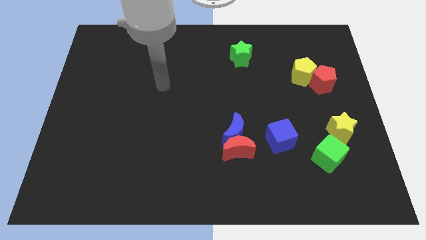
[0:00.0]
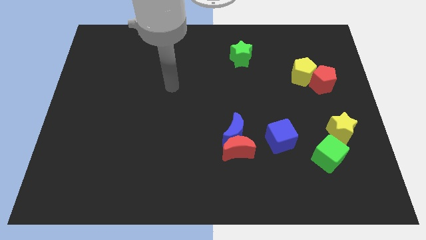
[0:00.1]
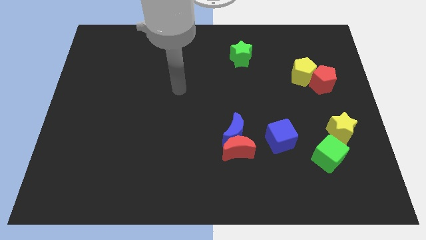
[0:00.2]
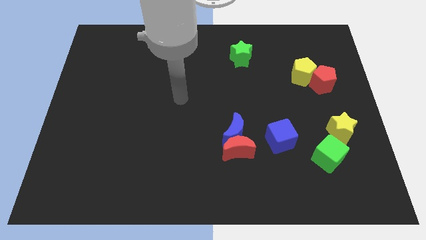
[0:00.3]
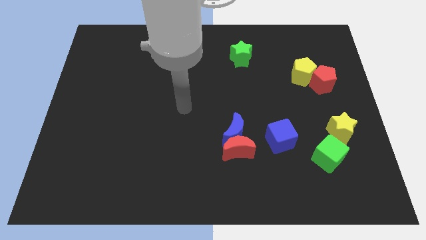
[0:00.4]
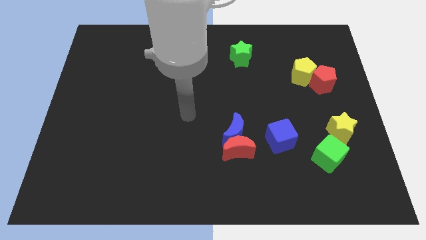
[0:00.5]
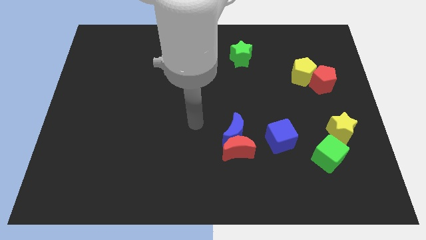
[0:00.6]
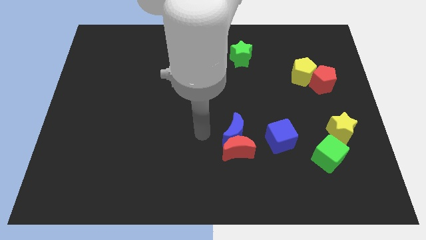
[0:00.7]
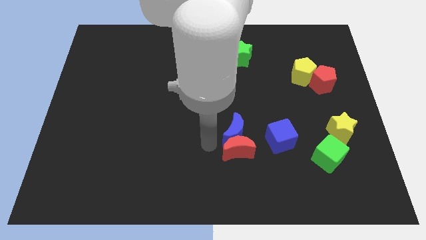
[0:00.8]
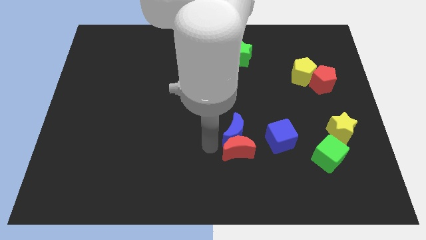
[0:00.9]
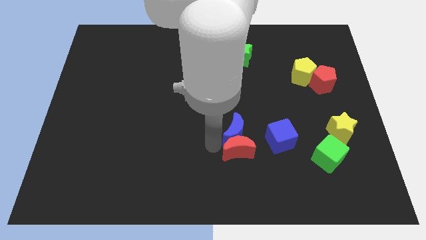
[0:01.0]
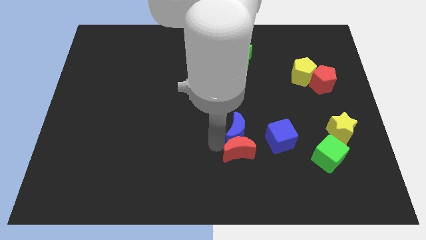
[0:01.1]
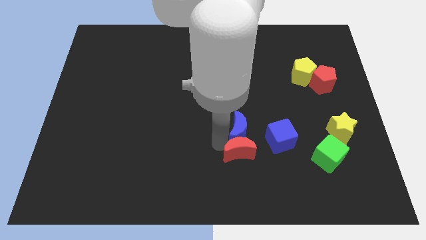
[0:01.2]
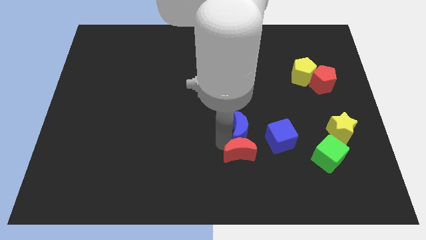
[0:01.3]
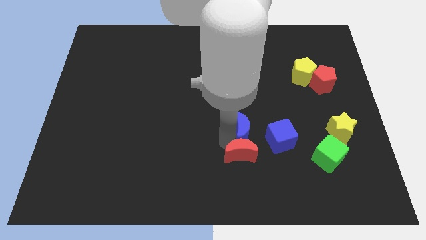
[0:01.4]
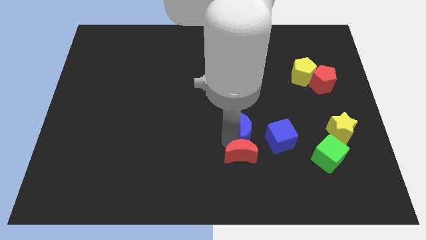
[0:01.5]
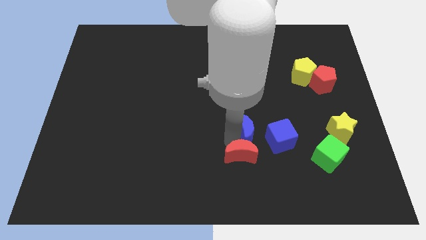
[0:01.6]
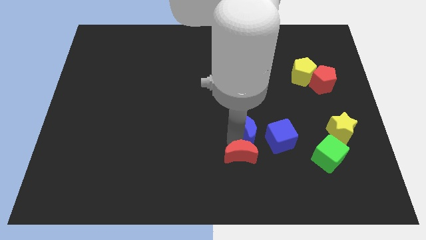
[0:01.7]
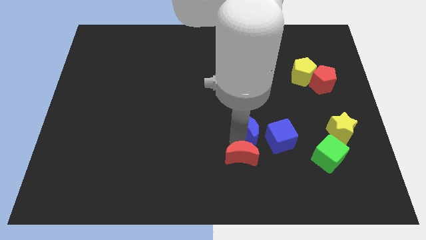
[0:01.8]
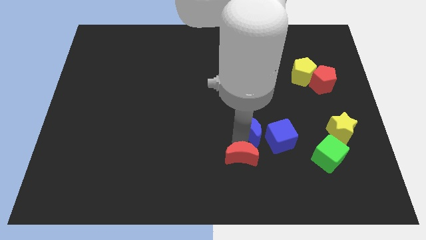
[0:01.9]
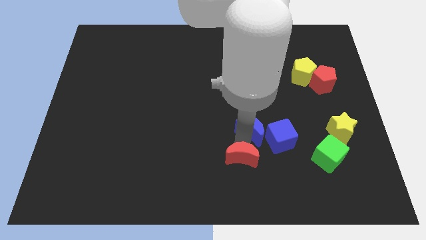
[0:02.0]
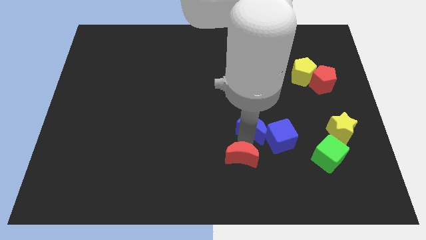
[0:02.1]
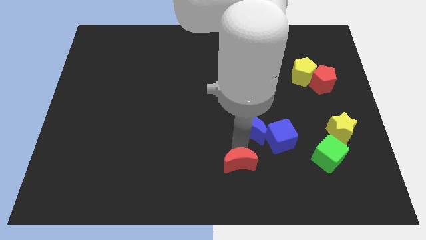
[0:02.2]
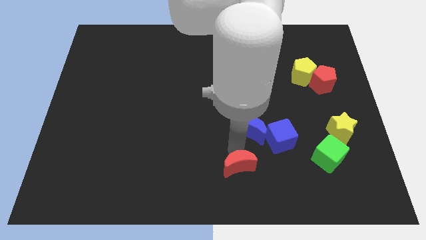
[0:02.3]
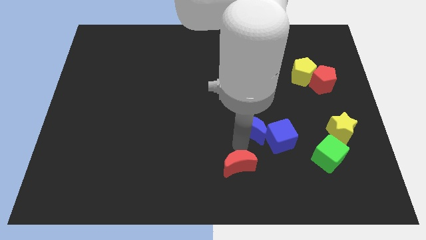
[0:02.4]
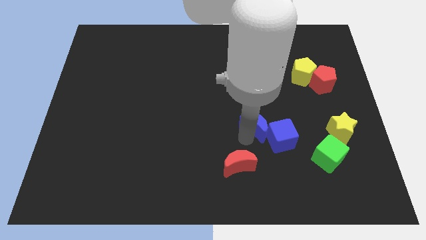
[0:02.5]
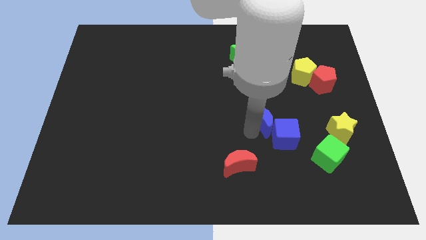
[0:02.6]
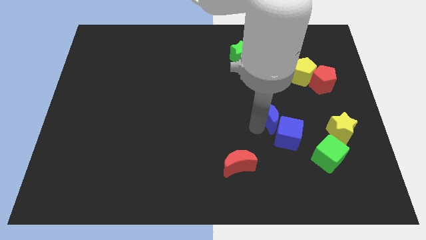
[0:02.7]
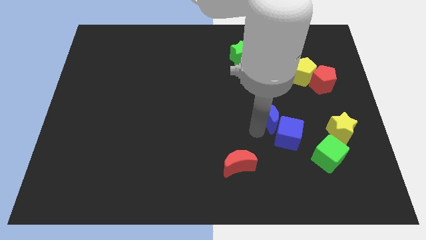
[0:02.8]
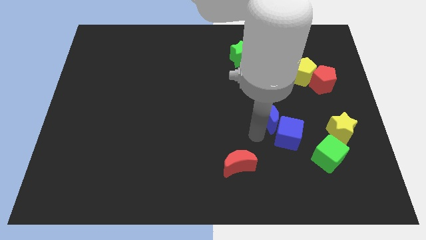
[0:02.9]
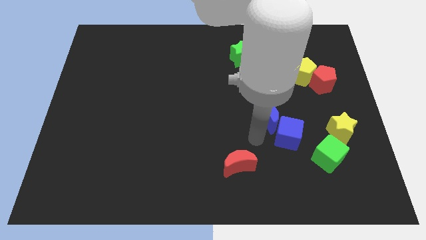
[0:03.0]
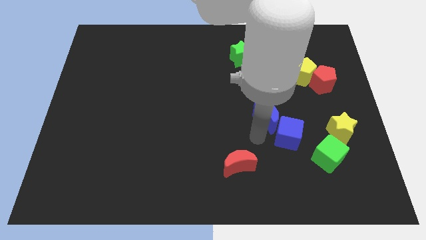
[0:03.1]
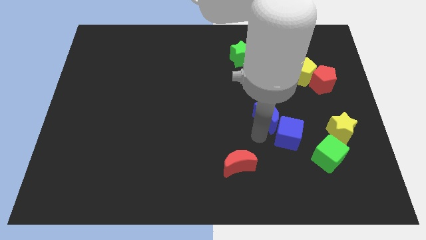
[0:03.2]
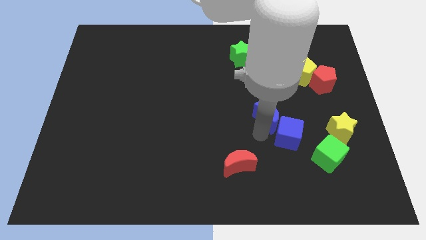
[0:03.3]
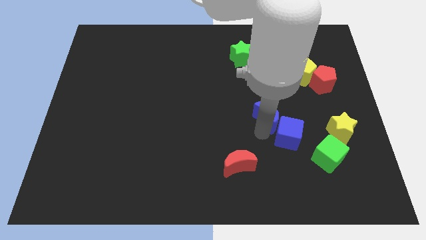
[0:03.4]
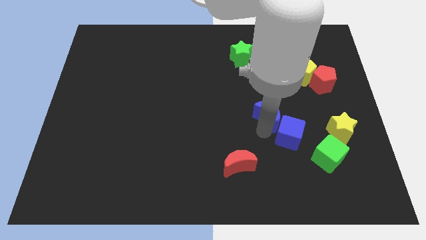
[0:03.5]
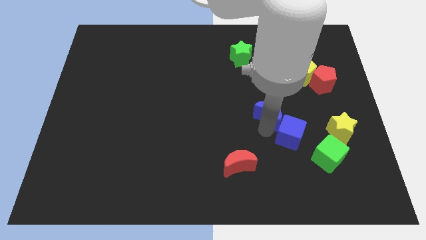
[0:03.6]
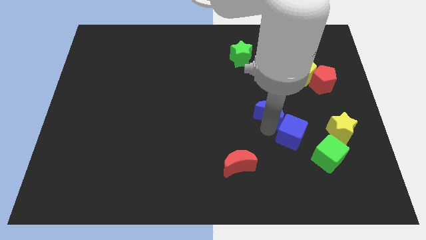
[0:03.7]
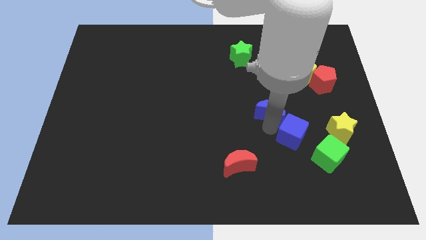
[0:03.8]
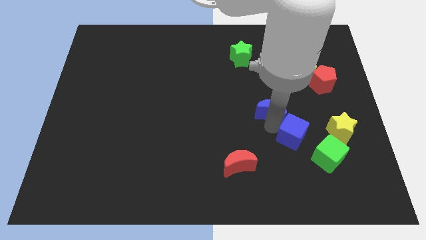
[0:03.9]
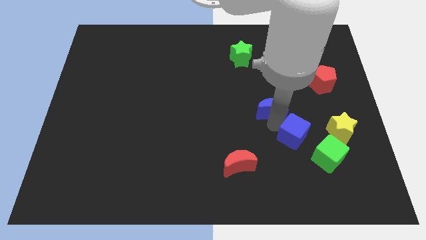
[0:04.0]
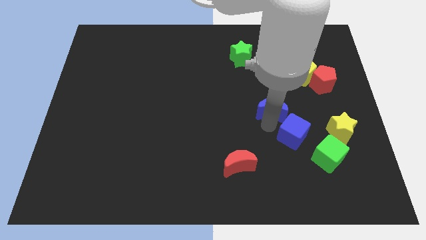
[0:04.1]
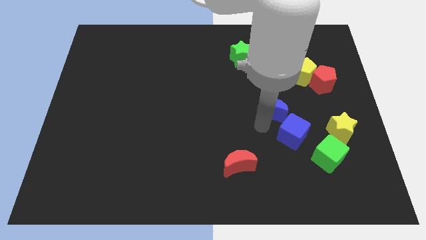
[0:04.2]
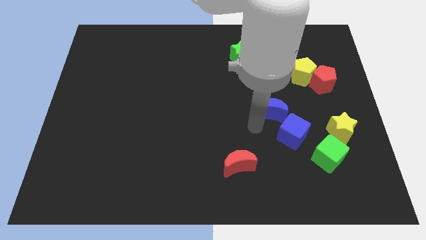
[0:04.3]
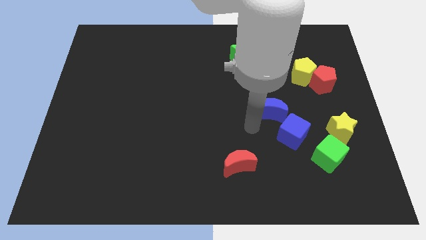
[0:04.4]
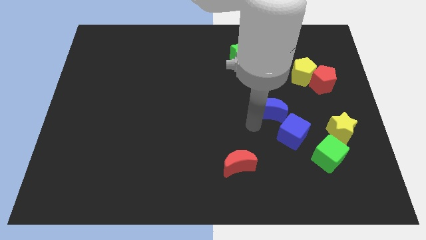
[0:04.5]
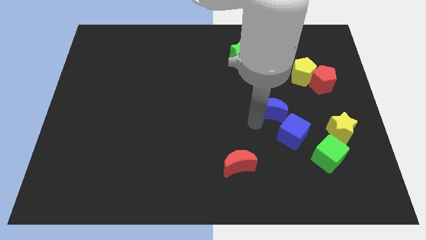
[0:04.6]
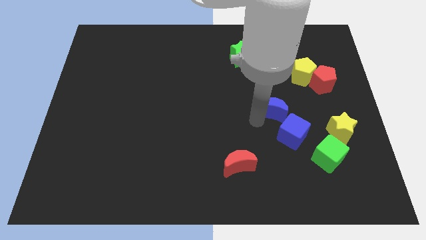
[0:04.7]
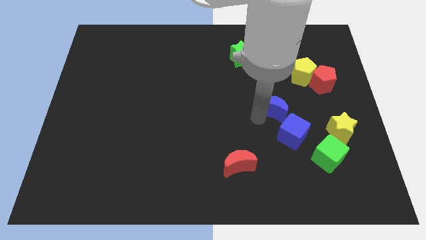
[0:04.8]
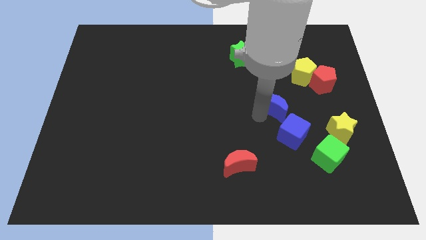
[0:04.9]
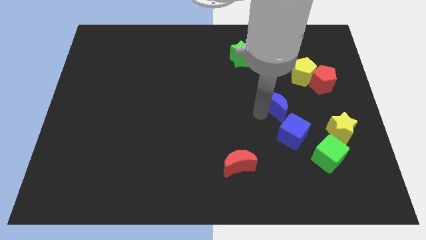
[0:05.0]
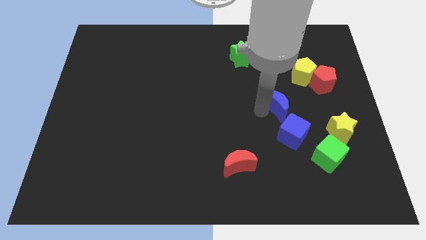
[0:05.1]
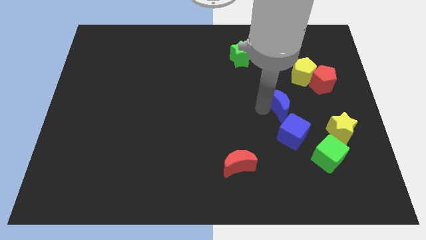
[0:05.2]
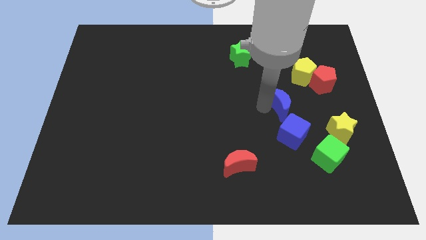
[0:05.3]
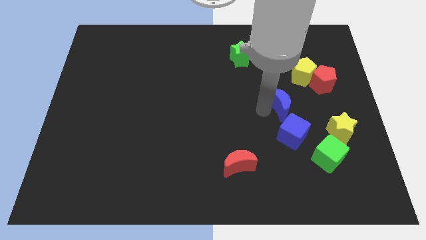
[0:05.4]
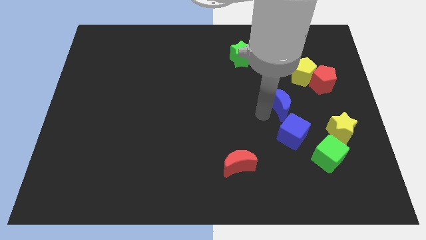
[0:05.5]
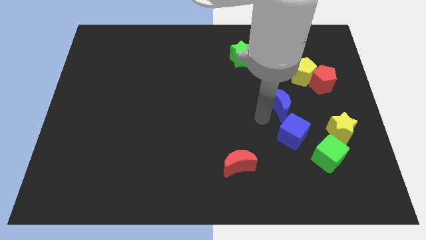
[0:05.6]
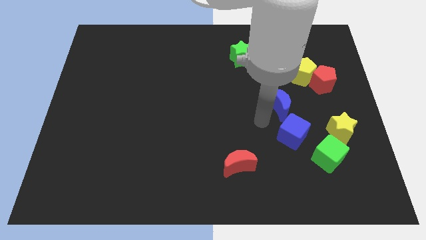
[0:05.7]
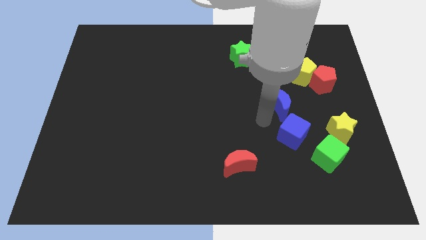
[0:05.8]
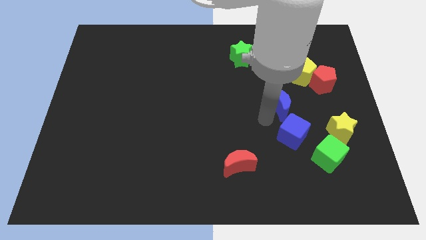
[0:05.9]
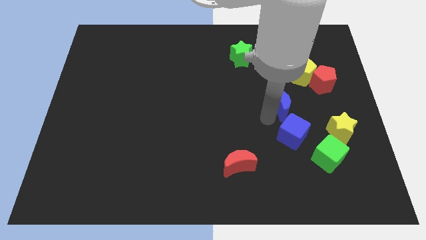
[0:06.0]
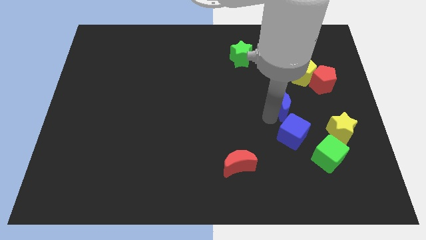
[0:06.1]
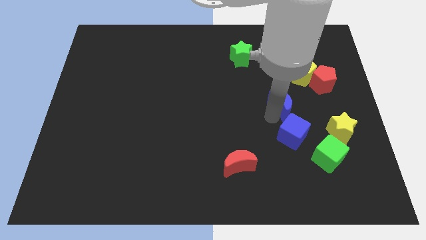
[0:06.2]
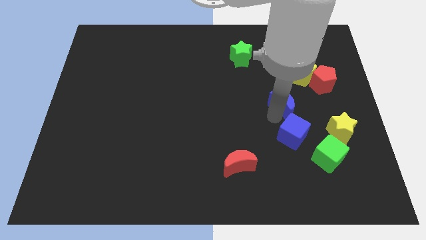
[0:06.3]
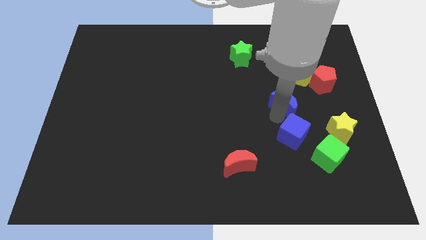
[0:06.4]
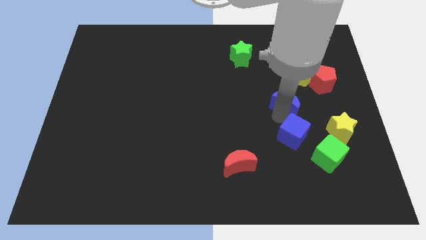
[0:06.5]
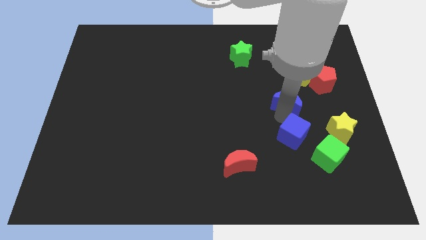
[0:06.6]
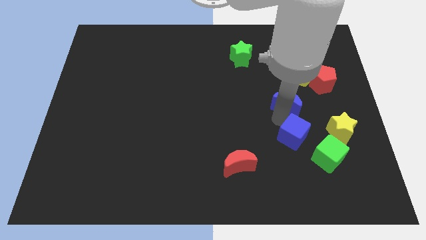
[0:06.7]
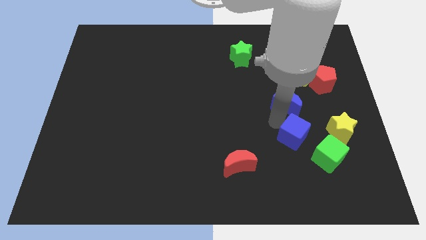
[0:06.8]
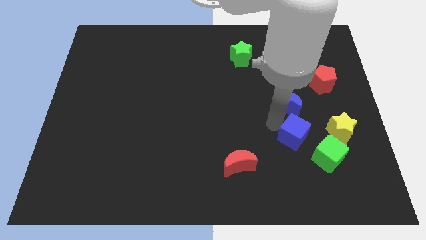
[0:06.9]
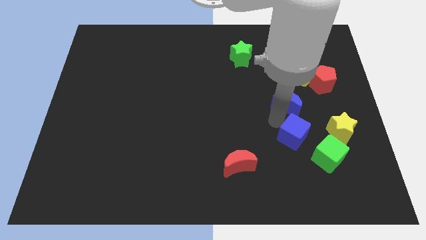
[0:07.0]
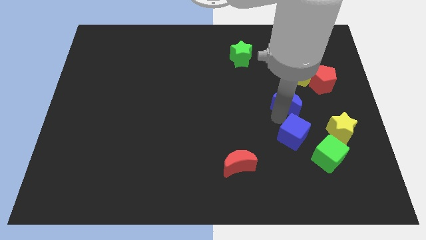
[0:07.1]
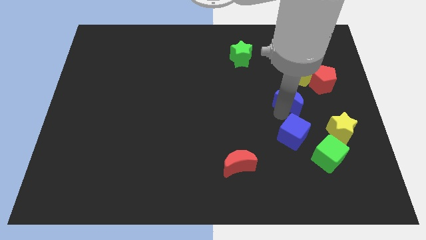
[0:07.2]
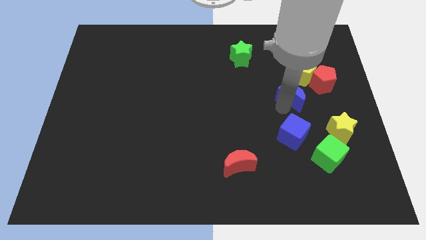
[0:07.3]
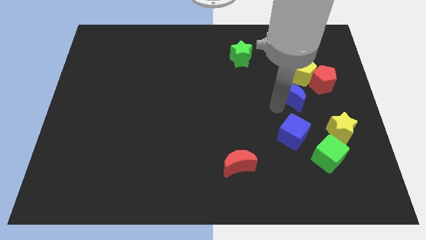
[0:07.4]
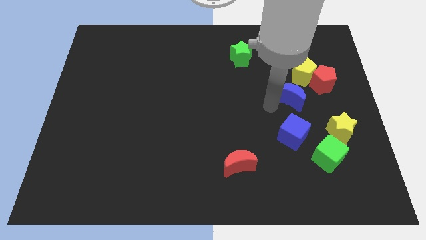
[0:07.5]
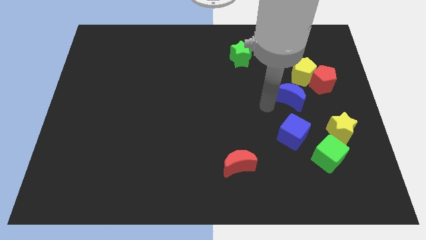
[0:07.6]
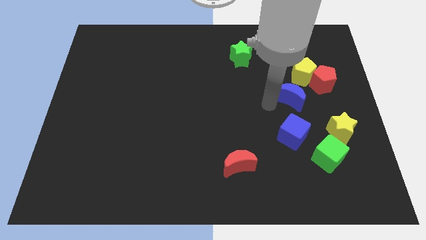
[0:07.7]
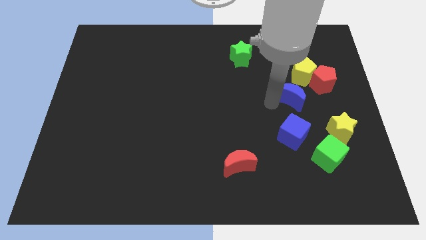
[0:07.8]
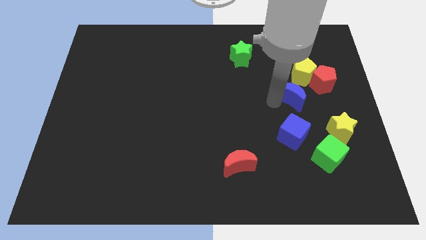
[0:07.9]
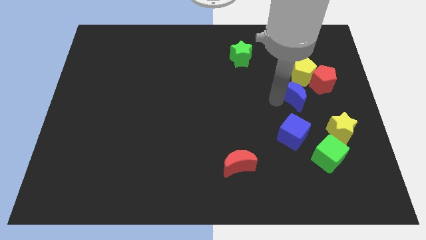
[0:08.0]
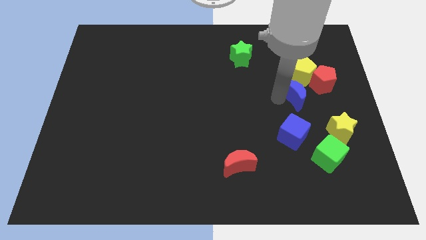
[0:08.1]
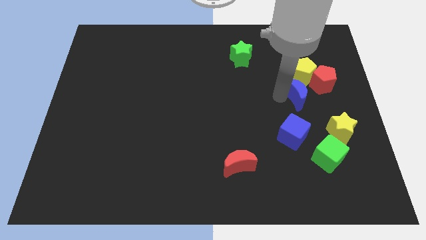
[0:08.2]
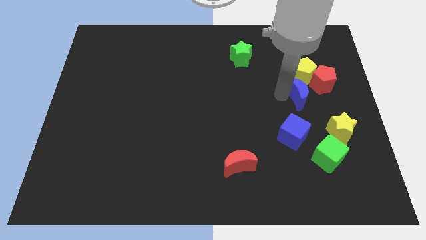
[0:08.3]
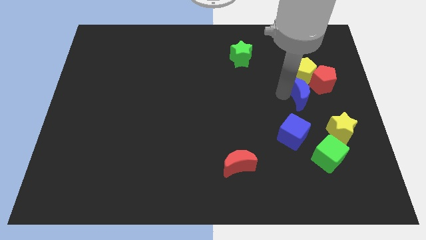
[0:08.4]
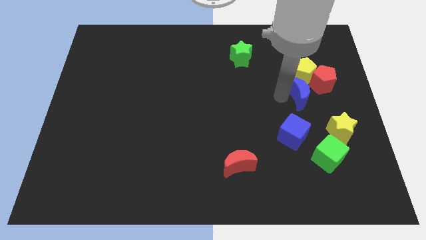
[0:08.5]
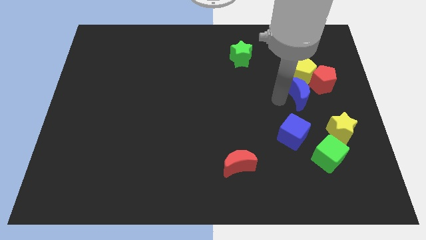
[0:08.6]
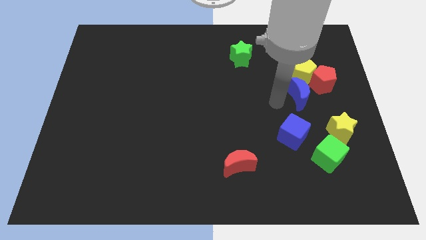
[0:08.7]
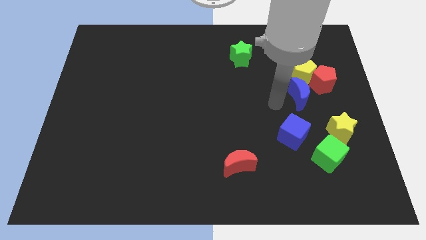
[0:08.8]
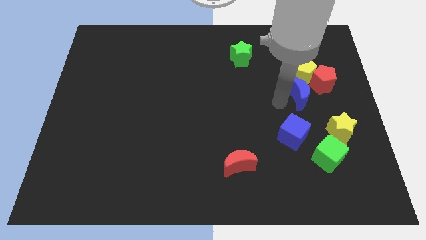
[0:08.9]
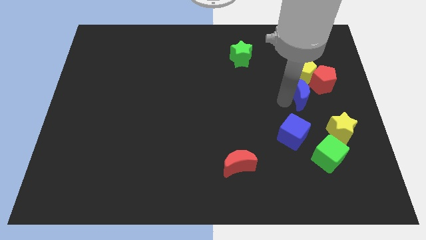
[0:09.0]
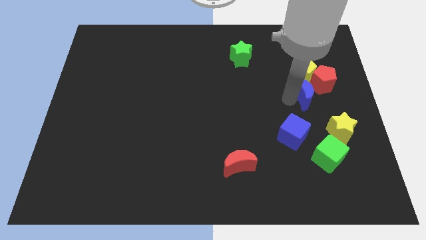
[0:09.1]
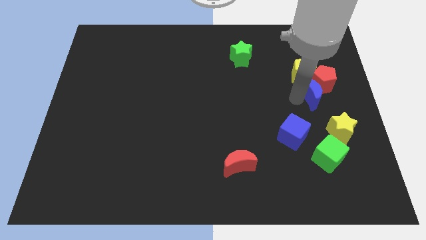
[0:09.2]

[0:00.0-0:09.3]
push the blue moon towards the red pentagon
